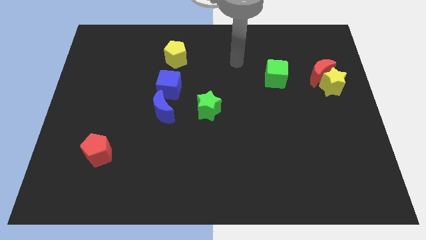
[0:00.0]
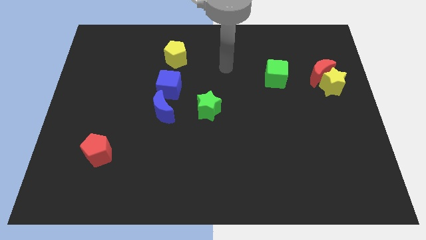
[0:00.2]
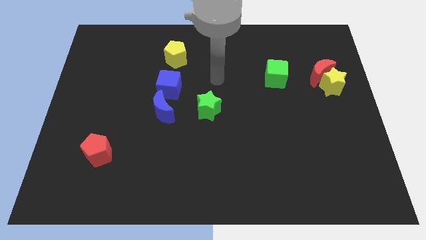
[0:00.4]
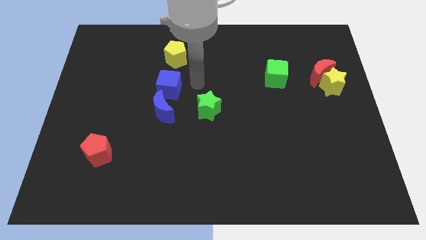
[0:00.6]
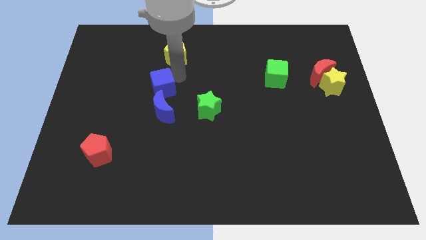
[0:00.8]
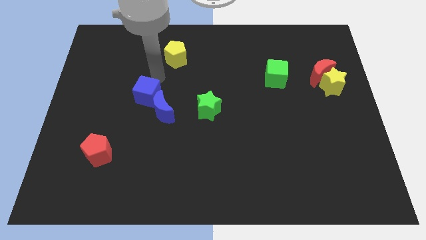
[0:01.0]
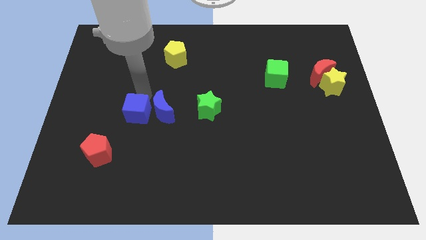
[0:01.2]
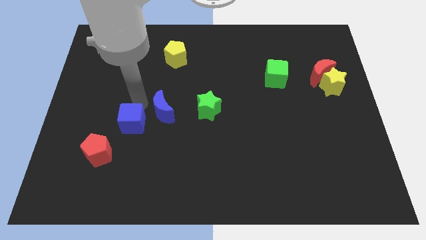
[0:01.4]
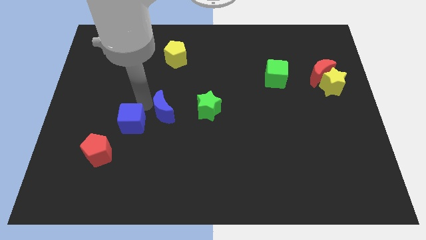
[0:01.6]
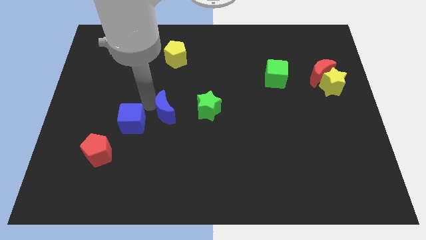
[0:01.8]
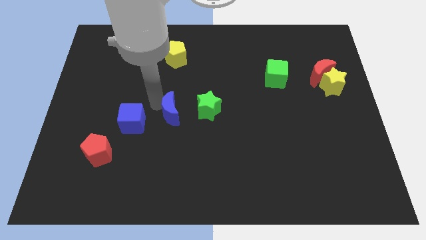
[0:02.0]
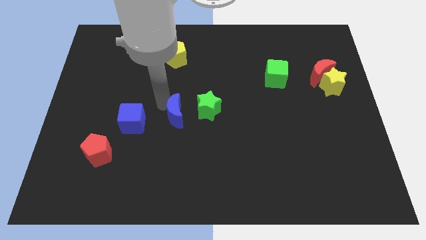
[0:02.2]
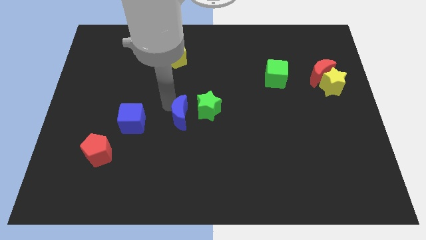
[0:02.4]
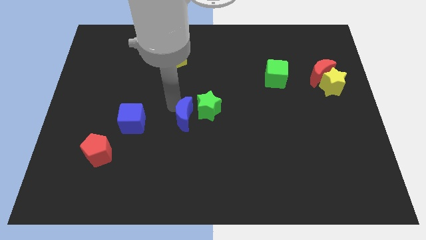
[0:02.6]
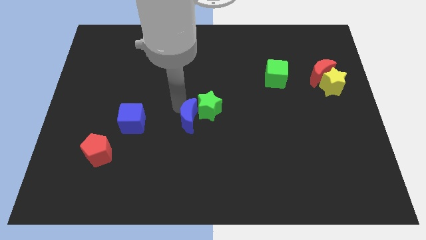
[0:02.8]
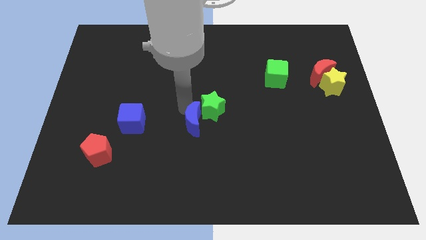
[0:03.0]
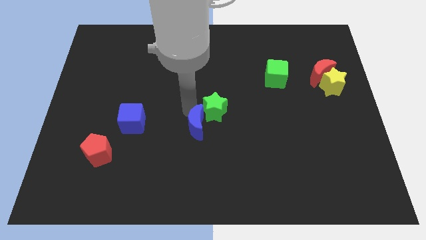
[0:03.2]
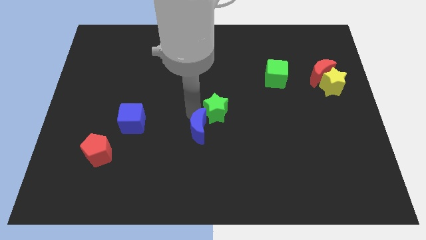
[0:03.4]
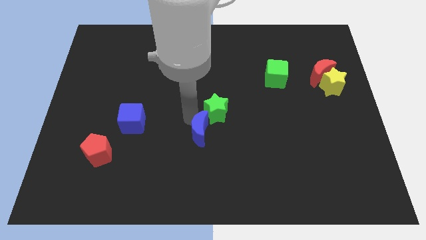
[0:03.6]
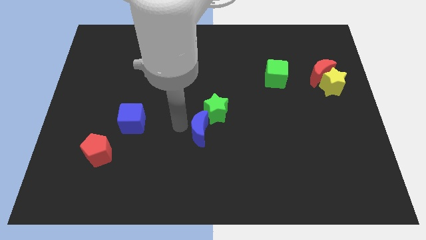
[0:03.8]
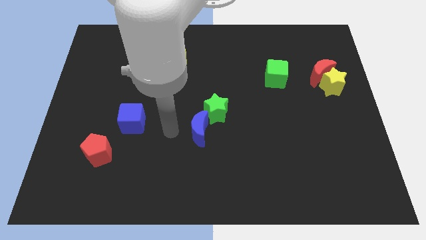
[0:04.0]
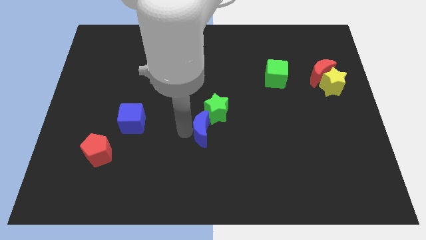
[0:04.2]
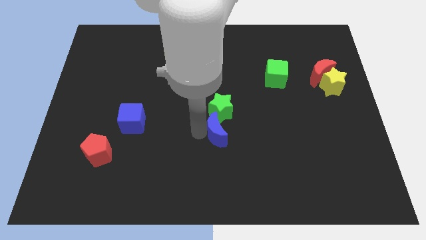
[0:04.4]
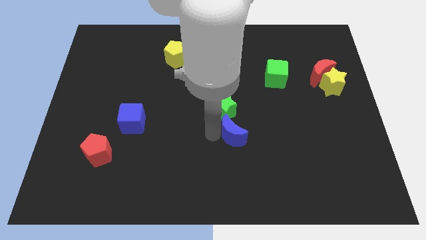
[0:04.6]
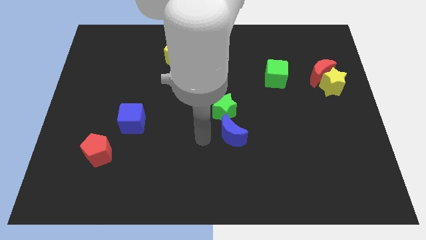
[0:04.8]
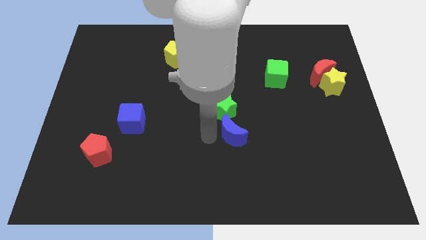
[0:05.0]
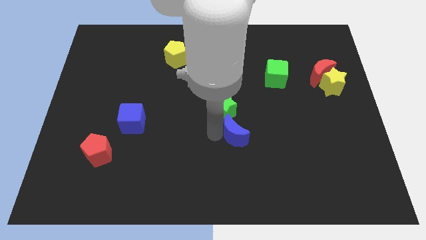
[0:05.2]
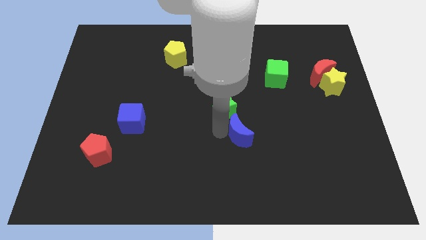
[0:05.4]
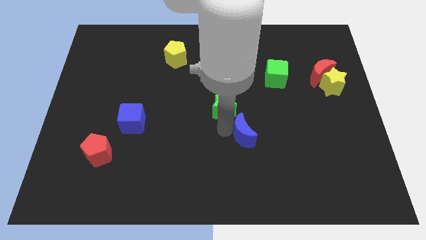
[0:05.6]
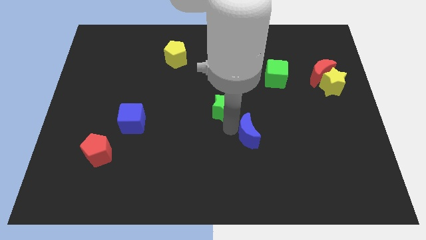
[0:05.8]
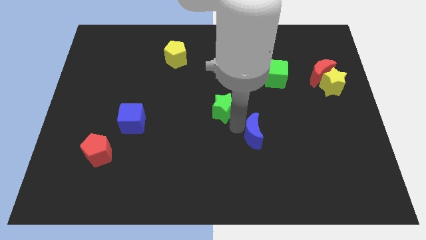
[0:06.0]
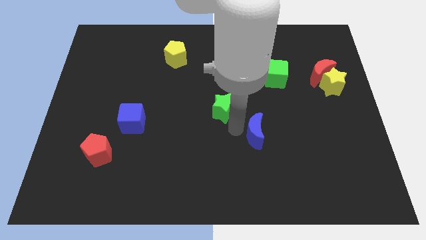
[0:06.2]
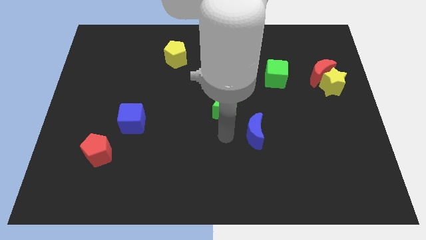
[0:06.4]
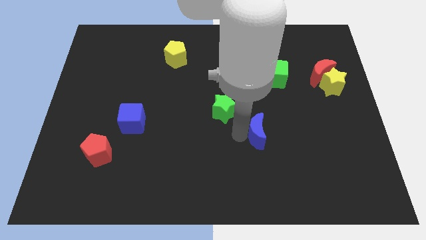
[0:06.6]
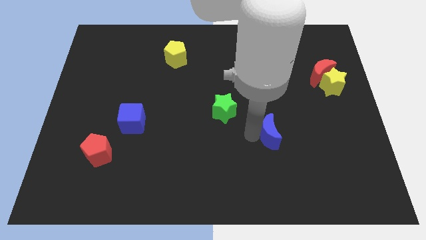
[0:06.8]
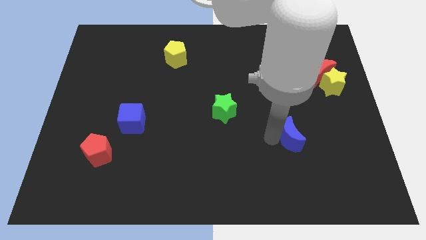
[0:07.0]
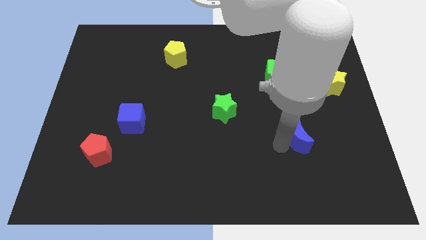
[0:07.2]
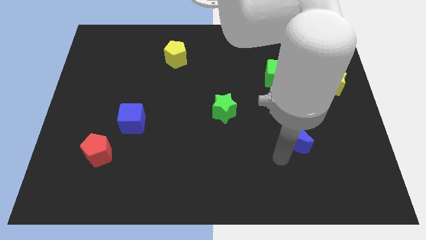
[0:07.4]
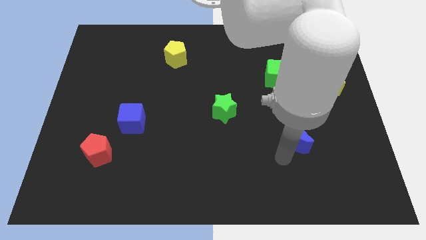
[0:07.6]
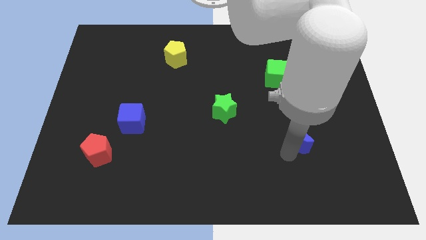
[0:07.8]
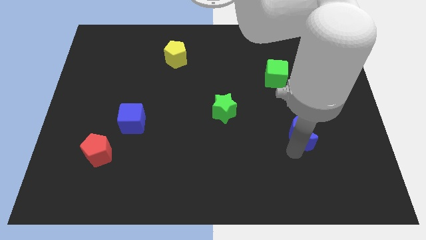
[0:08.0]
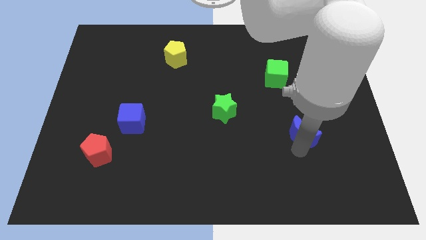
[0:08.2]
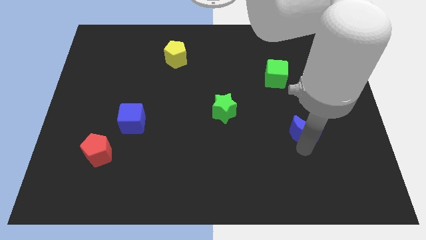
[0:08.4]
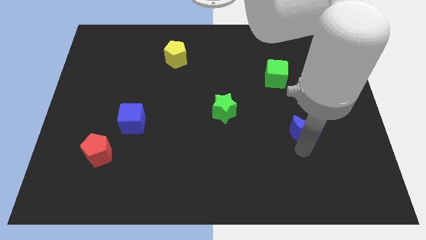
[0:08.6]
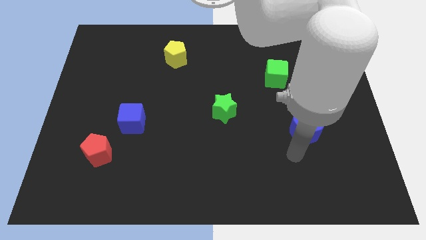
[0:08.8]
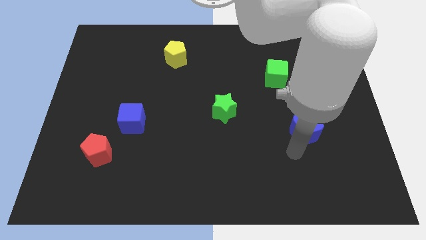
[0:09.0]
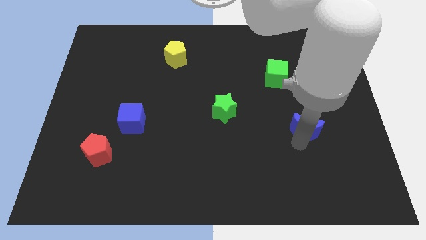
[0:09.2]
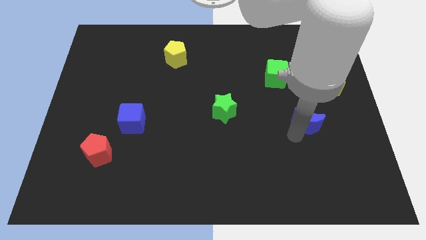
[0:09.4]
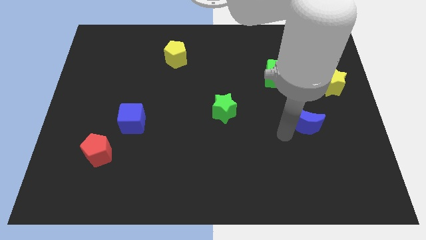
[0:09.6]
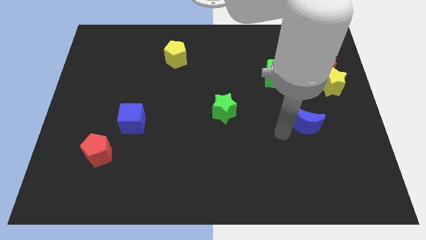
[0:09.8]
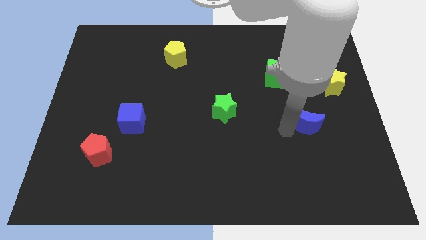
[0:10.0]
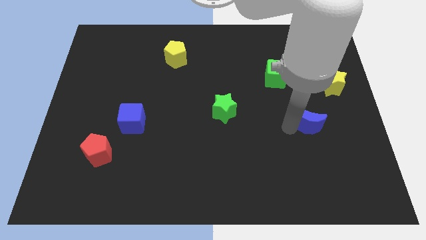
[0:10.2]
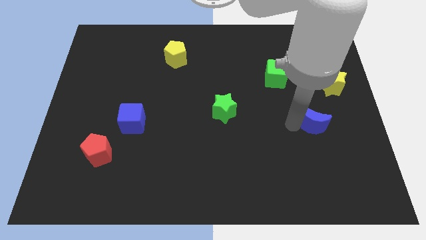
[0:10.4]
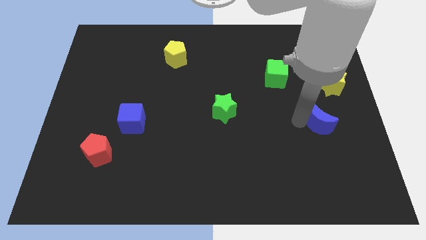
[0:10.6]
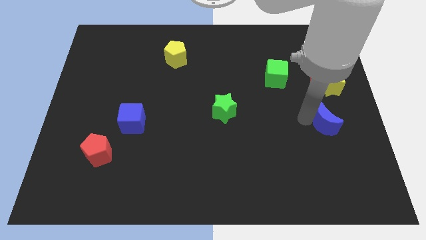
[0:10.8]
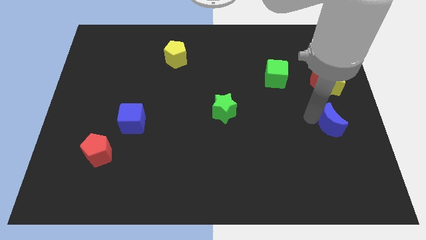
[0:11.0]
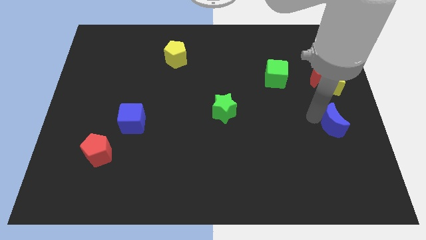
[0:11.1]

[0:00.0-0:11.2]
move the blue moon to the center right

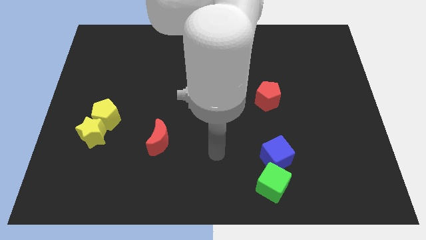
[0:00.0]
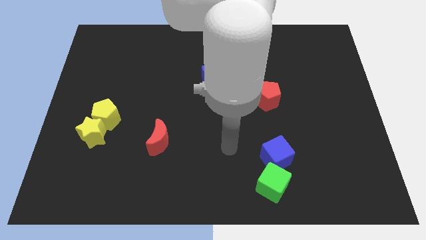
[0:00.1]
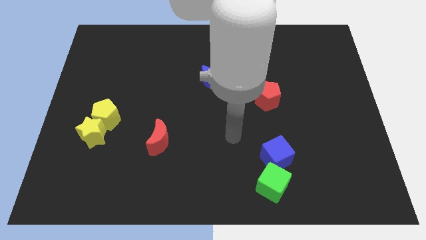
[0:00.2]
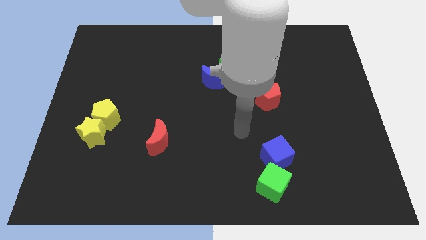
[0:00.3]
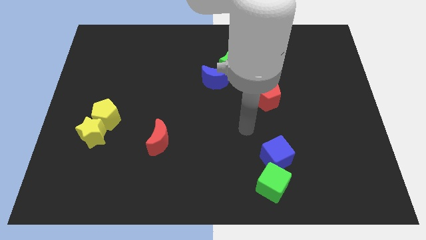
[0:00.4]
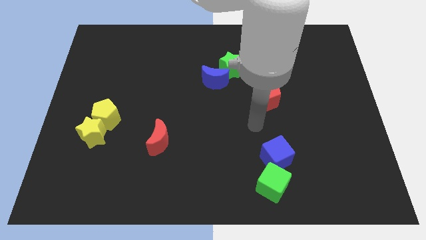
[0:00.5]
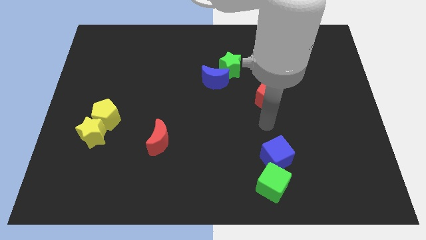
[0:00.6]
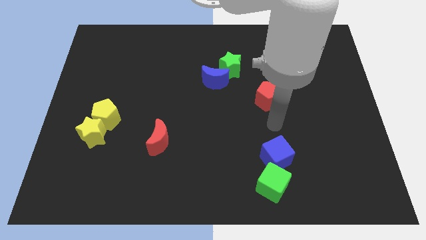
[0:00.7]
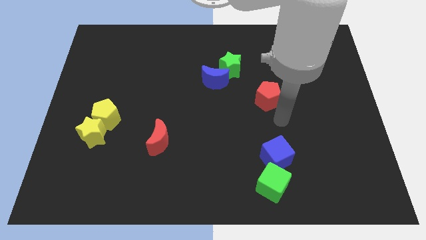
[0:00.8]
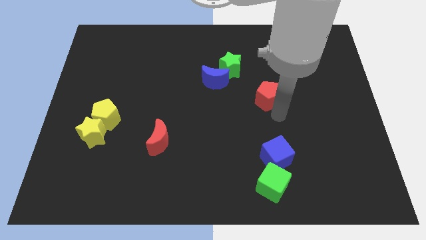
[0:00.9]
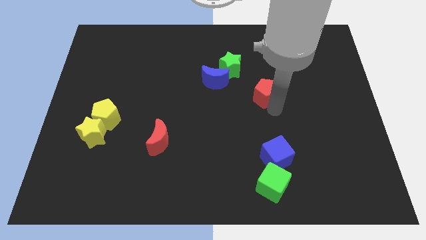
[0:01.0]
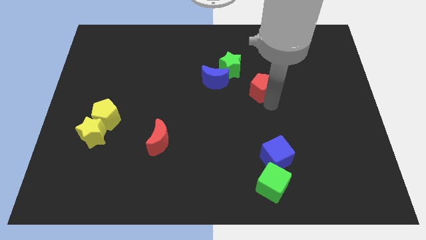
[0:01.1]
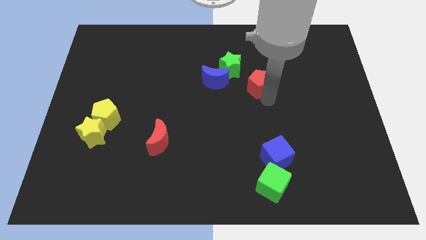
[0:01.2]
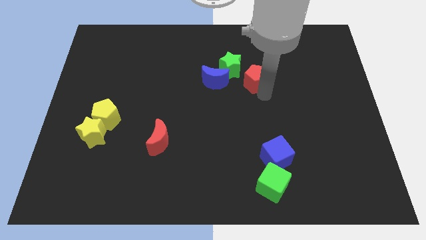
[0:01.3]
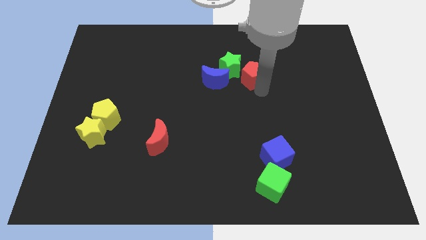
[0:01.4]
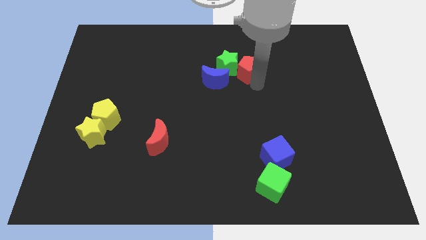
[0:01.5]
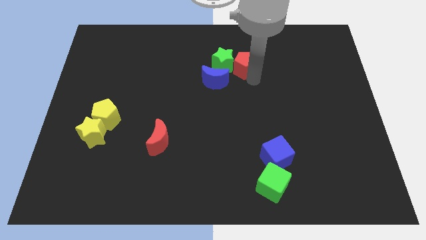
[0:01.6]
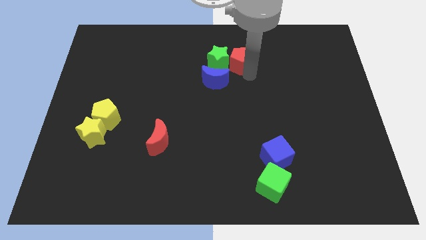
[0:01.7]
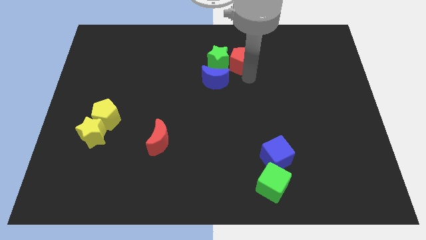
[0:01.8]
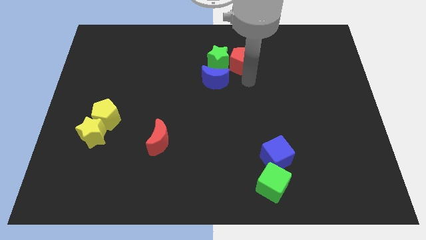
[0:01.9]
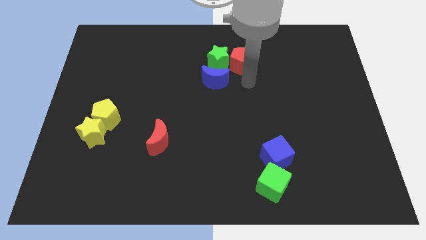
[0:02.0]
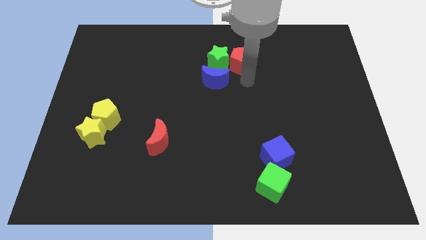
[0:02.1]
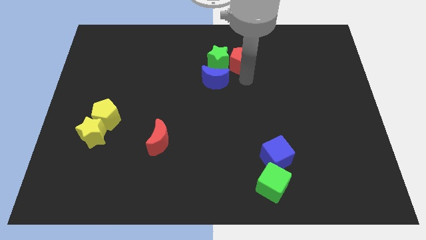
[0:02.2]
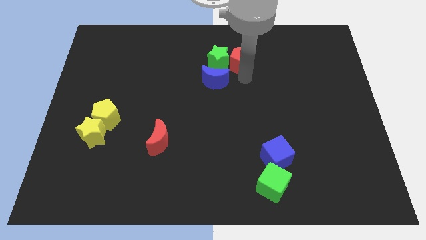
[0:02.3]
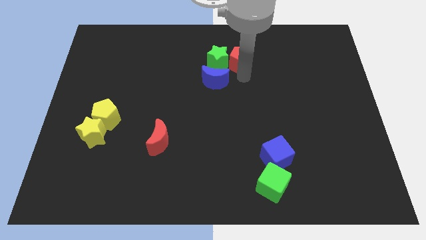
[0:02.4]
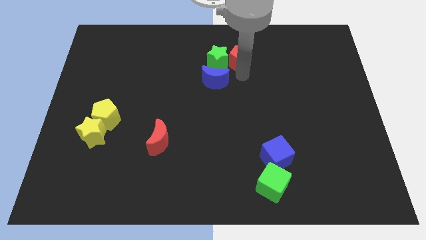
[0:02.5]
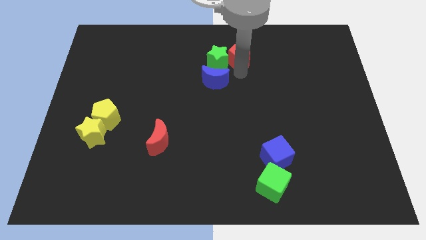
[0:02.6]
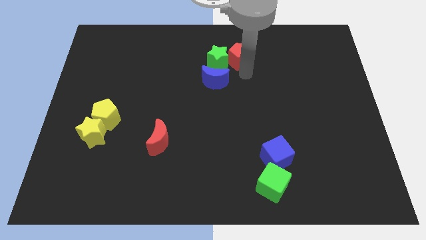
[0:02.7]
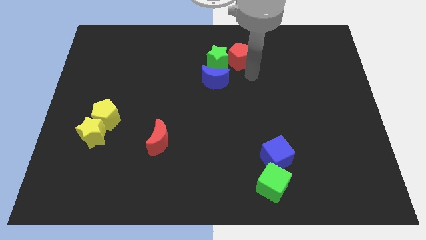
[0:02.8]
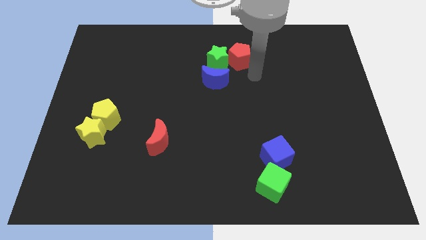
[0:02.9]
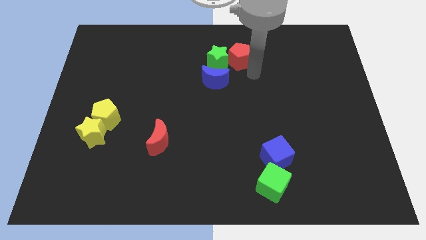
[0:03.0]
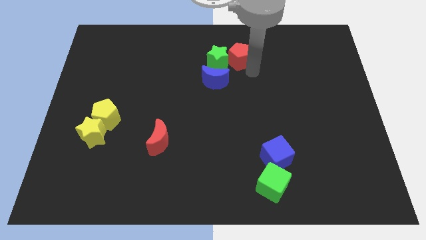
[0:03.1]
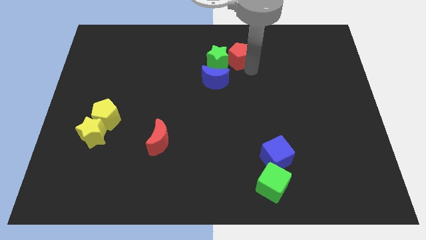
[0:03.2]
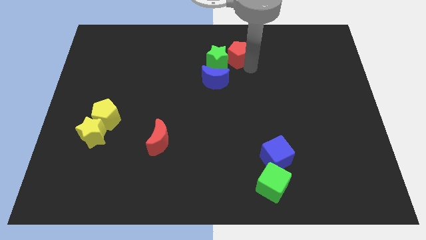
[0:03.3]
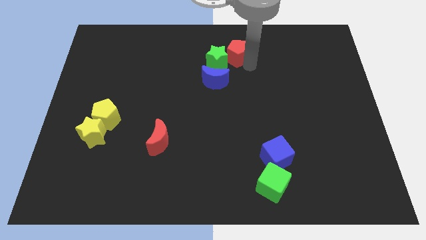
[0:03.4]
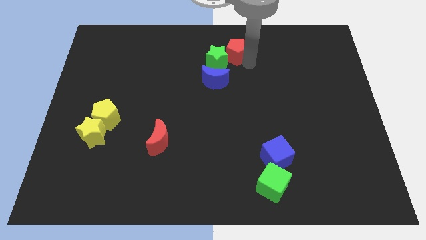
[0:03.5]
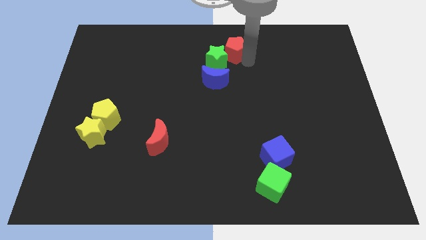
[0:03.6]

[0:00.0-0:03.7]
push the red pentagon to the top
